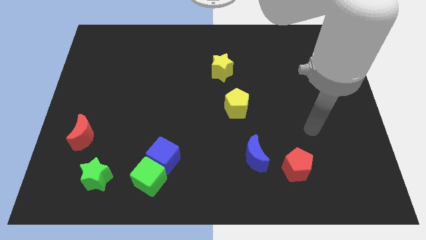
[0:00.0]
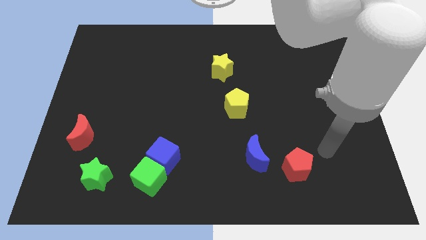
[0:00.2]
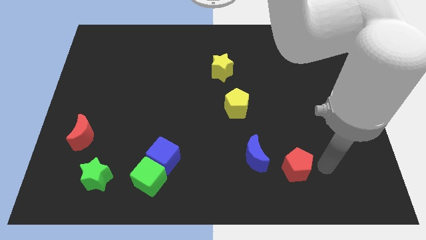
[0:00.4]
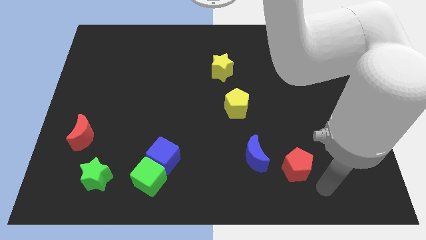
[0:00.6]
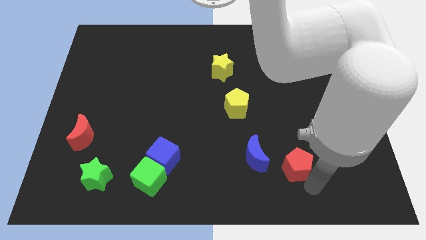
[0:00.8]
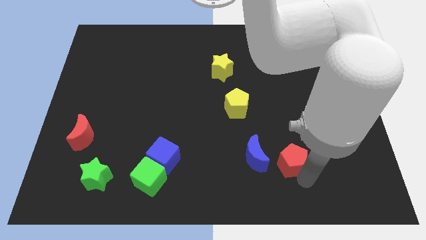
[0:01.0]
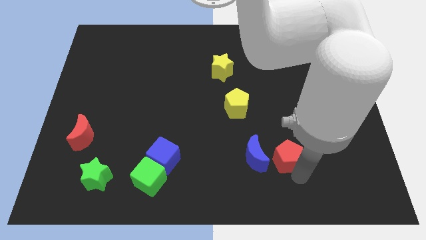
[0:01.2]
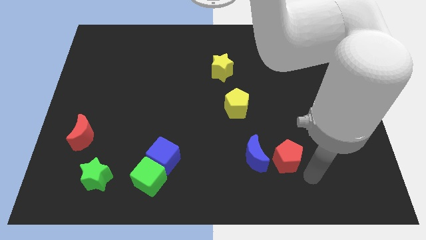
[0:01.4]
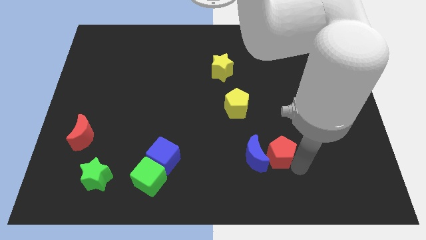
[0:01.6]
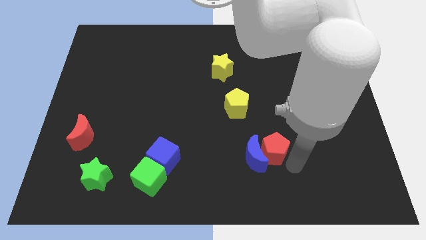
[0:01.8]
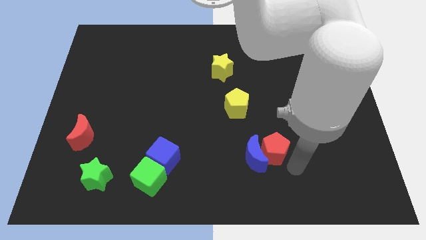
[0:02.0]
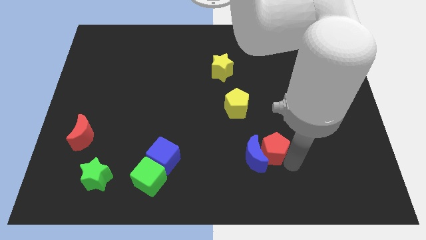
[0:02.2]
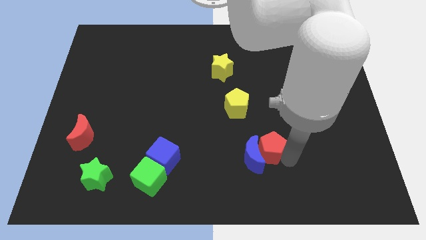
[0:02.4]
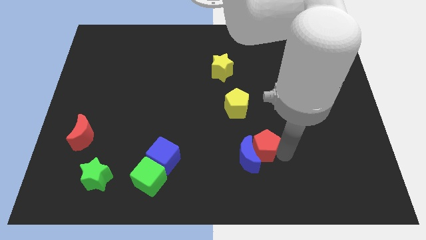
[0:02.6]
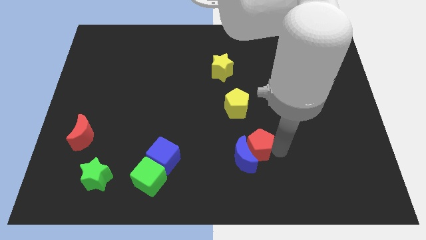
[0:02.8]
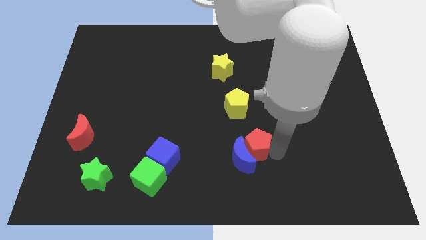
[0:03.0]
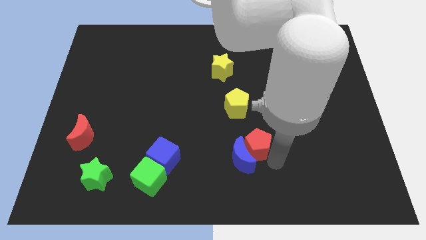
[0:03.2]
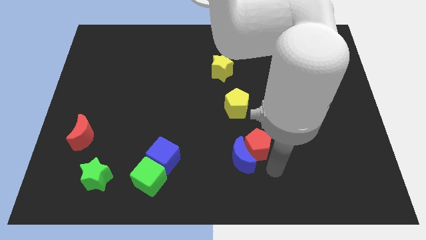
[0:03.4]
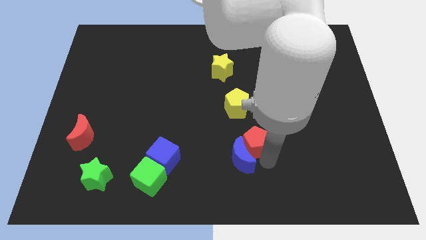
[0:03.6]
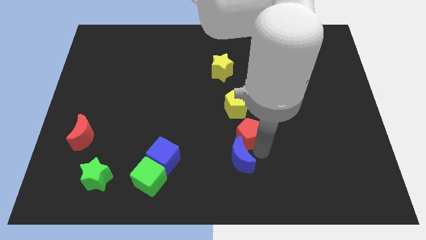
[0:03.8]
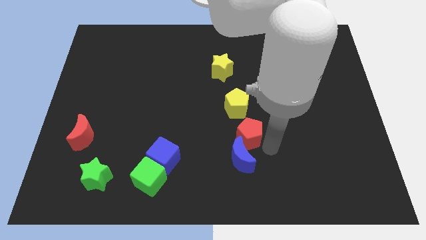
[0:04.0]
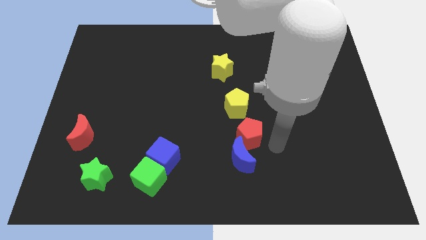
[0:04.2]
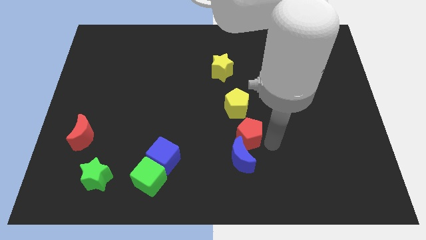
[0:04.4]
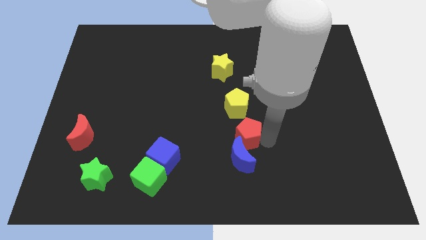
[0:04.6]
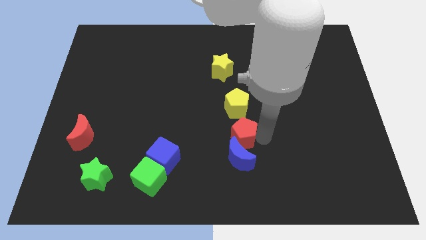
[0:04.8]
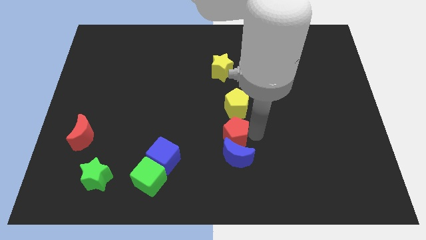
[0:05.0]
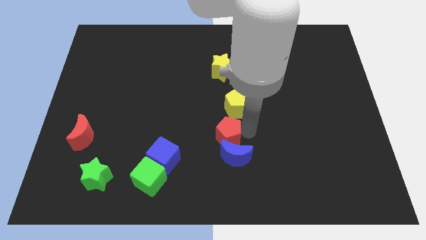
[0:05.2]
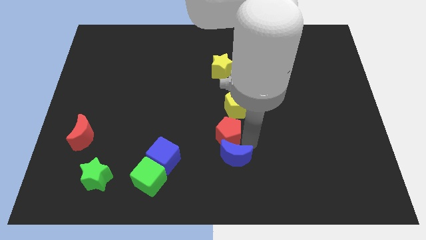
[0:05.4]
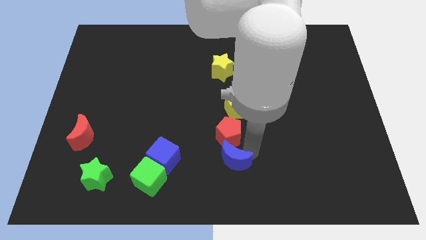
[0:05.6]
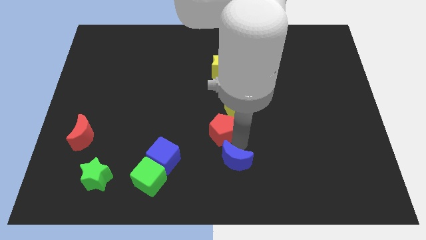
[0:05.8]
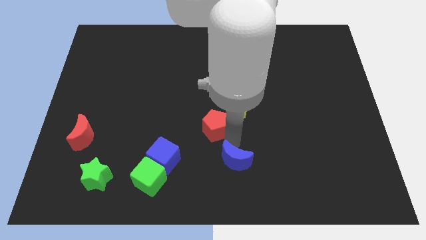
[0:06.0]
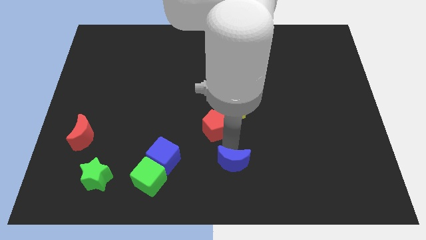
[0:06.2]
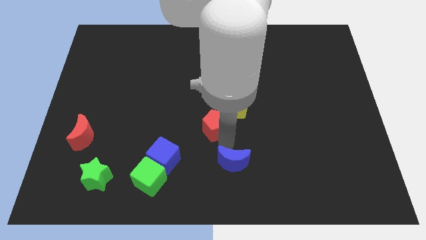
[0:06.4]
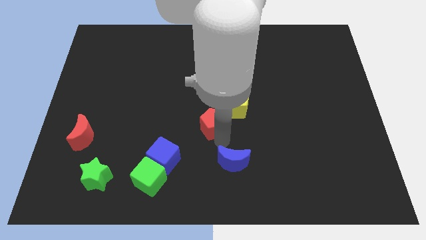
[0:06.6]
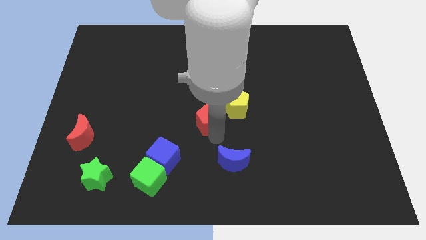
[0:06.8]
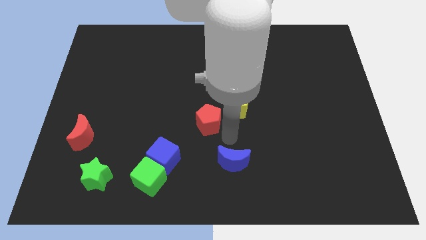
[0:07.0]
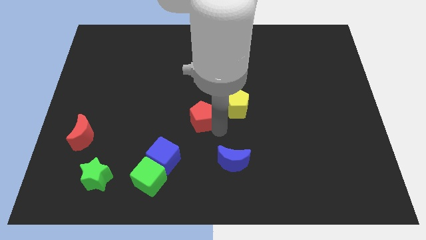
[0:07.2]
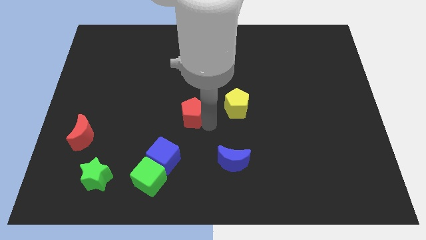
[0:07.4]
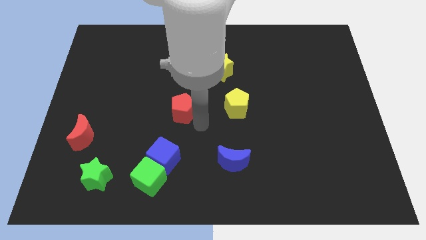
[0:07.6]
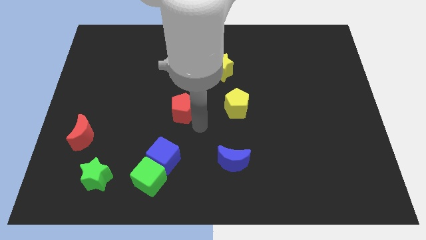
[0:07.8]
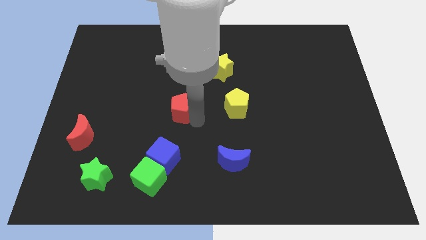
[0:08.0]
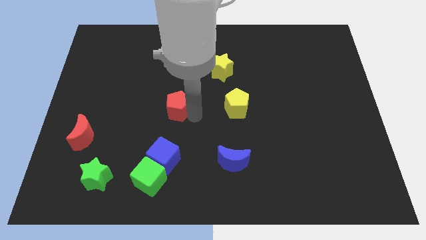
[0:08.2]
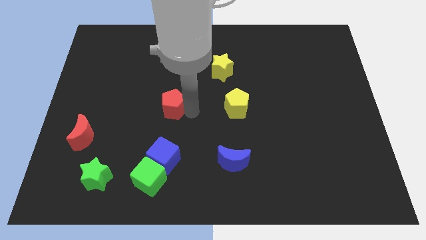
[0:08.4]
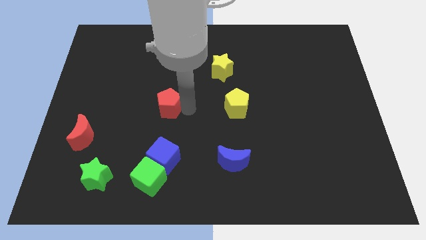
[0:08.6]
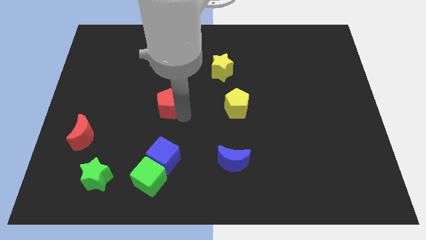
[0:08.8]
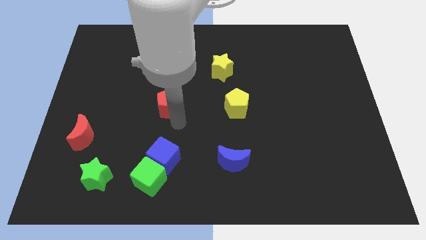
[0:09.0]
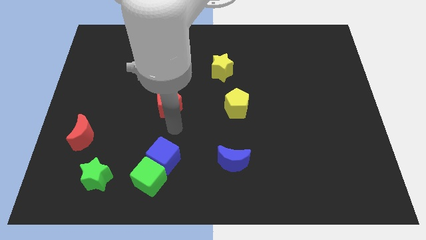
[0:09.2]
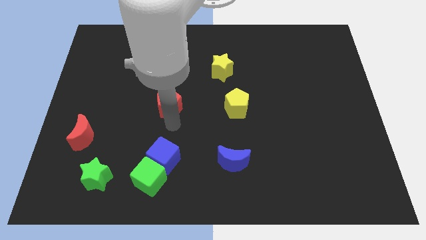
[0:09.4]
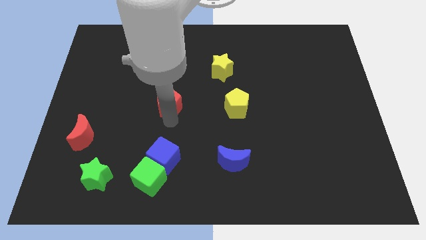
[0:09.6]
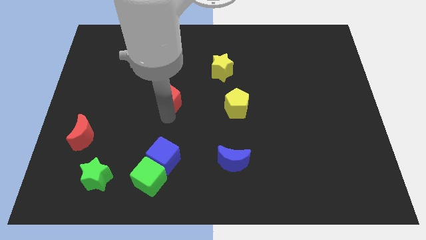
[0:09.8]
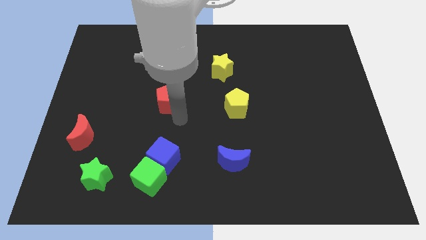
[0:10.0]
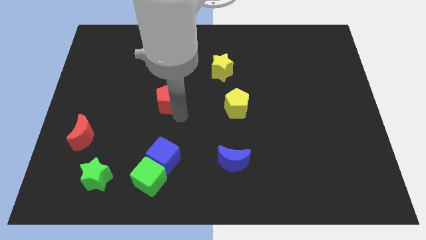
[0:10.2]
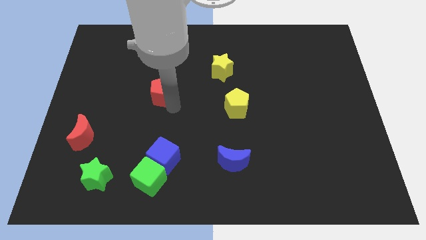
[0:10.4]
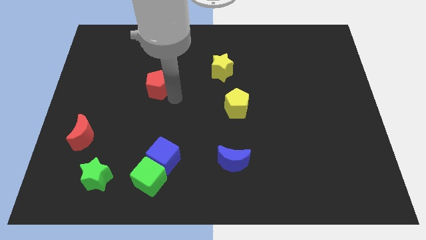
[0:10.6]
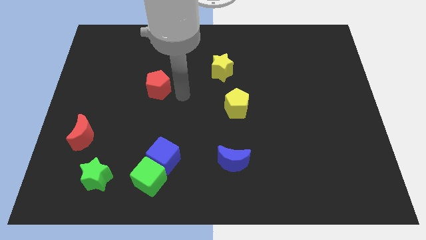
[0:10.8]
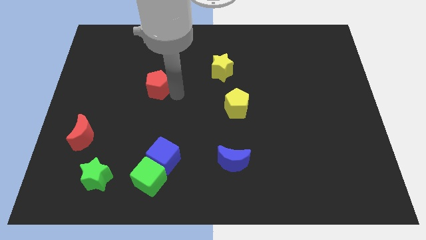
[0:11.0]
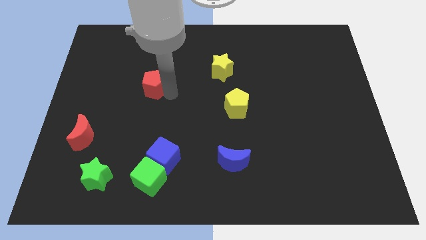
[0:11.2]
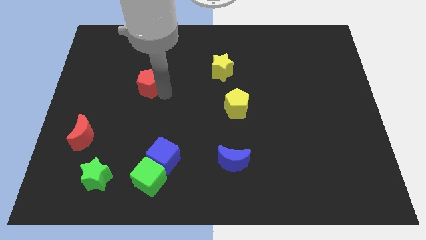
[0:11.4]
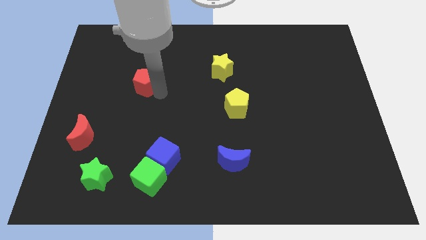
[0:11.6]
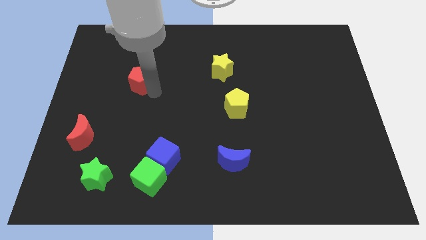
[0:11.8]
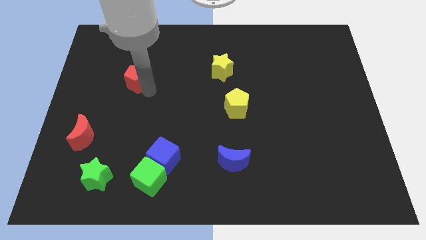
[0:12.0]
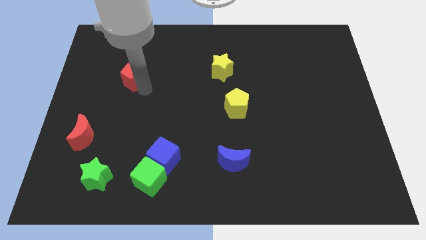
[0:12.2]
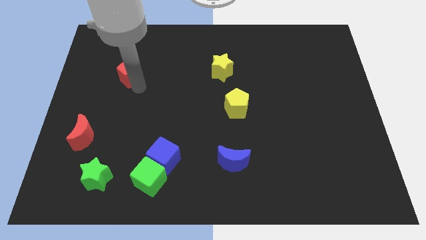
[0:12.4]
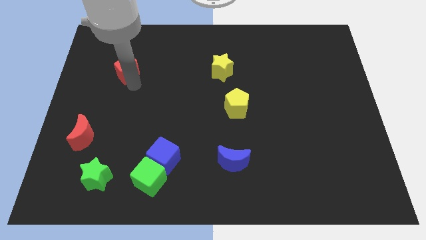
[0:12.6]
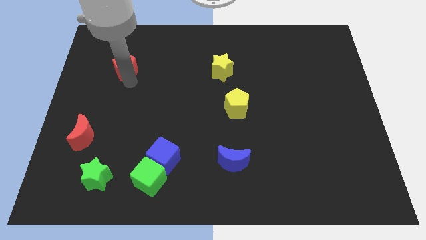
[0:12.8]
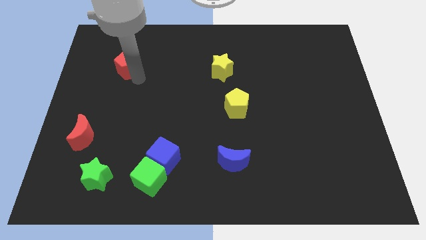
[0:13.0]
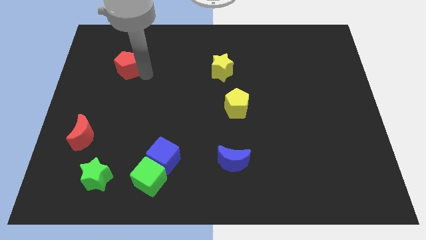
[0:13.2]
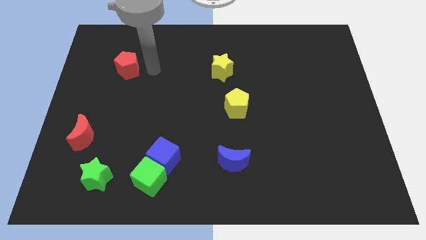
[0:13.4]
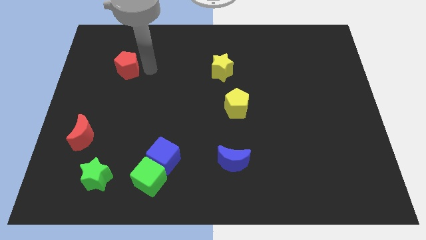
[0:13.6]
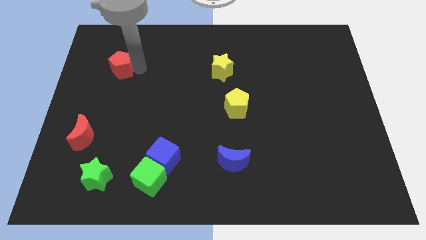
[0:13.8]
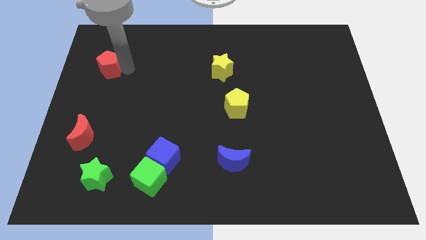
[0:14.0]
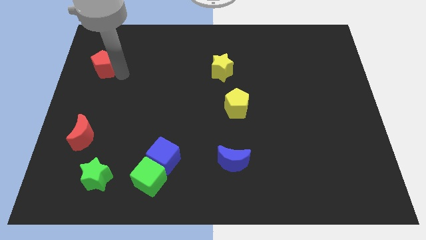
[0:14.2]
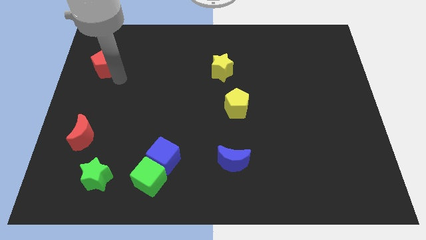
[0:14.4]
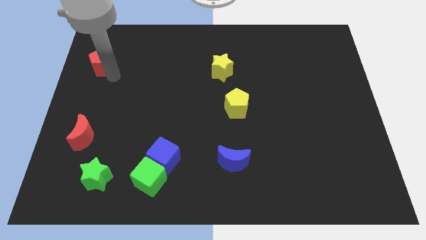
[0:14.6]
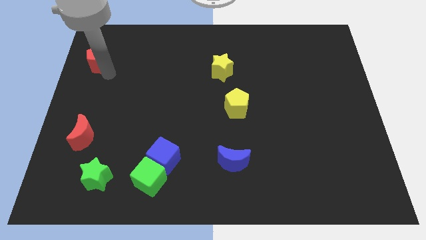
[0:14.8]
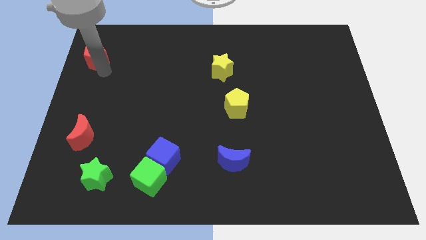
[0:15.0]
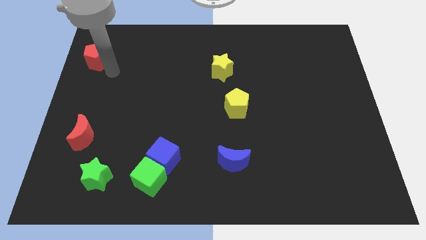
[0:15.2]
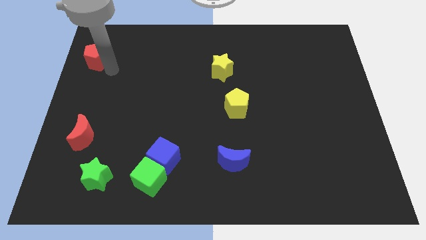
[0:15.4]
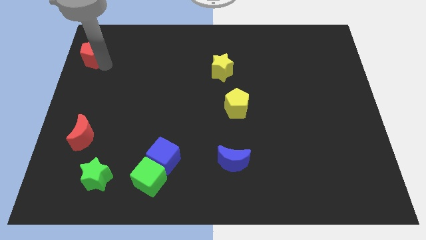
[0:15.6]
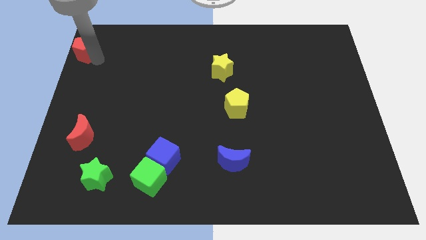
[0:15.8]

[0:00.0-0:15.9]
put the red pentagon to the upper left corner

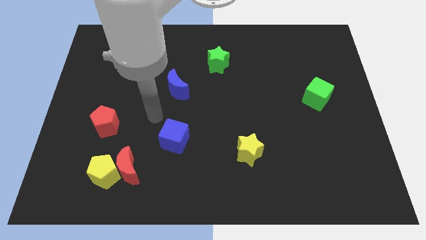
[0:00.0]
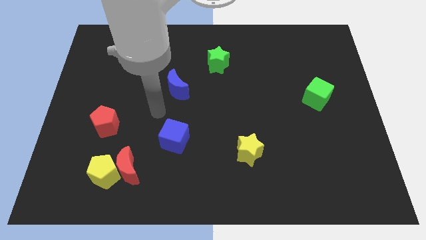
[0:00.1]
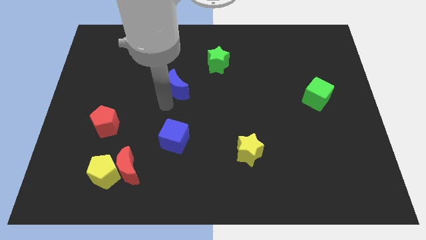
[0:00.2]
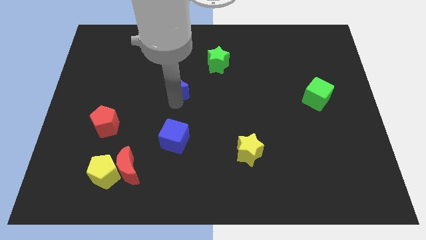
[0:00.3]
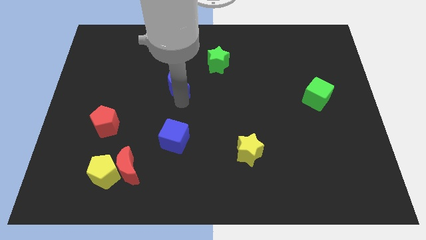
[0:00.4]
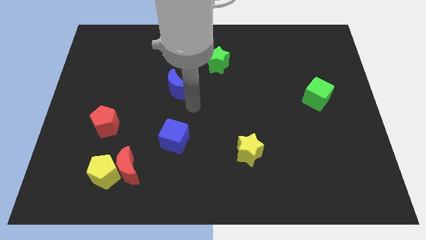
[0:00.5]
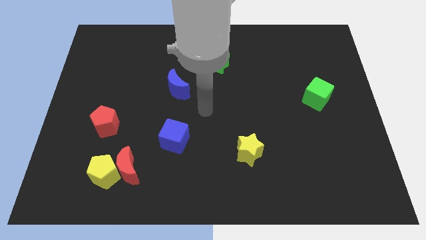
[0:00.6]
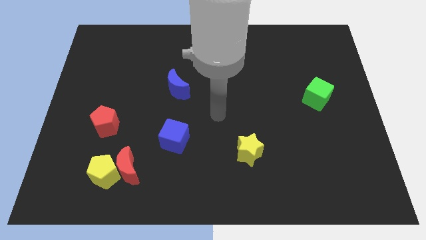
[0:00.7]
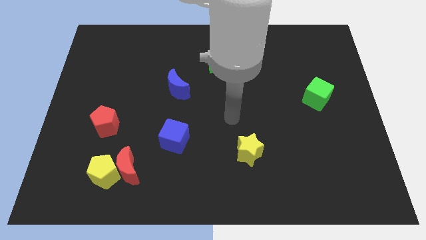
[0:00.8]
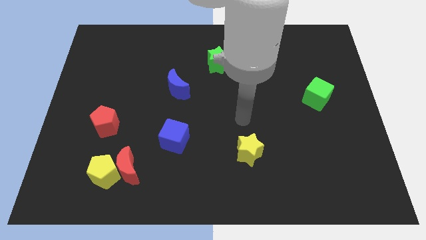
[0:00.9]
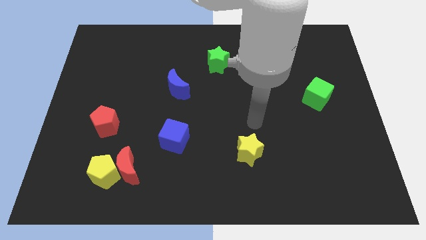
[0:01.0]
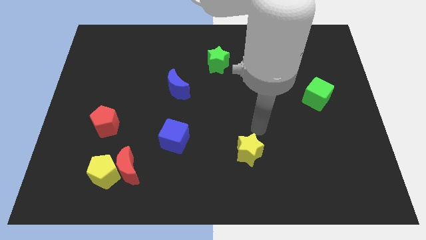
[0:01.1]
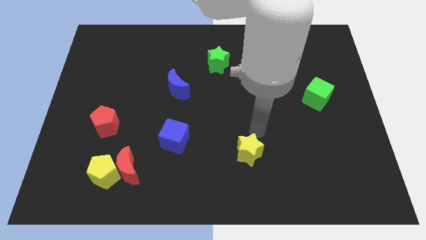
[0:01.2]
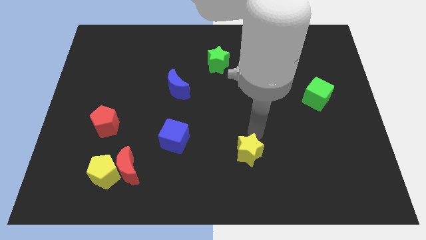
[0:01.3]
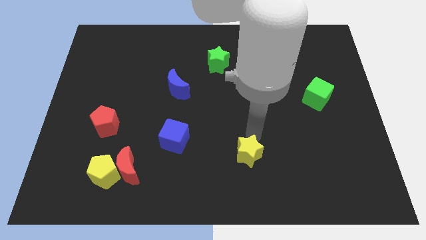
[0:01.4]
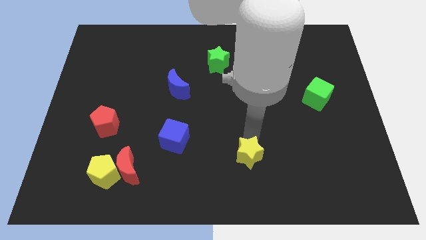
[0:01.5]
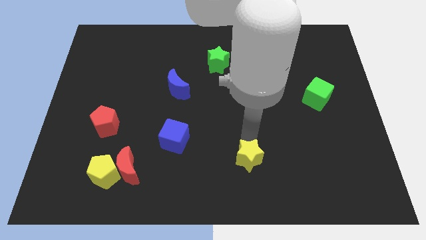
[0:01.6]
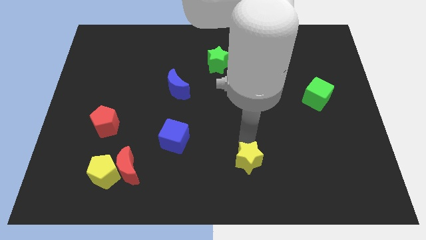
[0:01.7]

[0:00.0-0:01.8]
move the yellow star to the bottom
